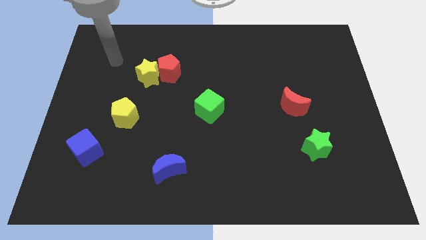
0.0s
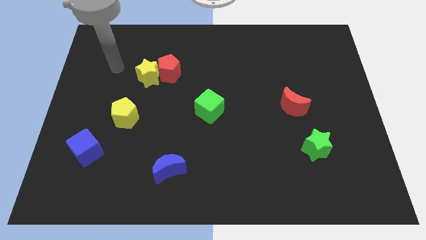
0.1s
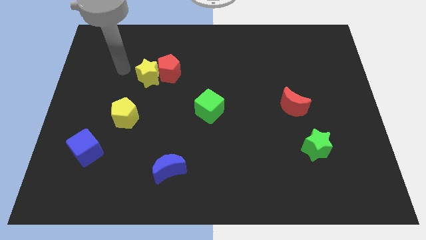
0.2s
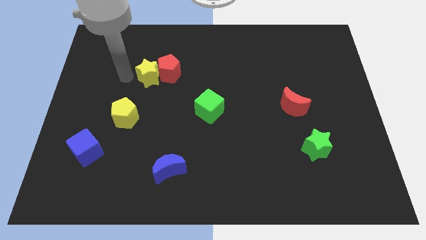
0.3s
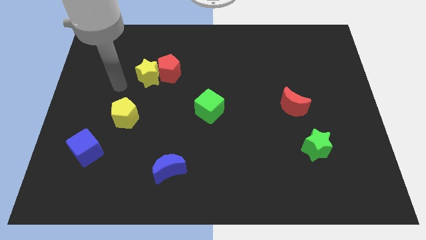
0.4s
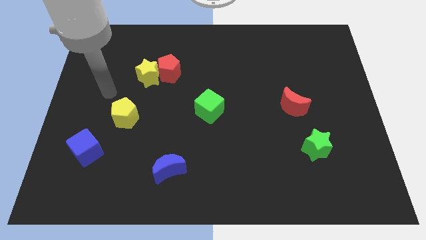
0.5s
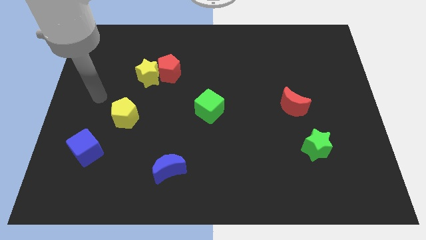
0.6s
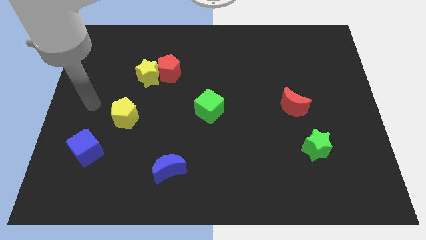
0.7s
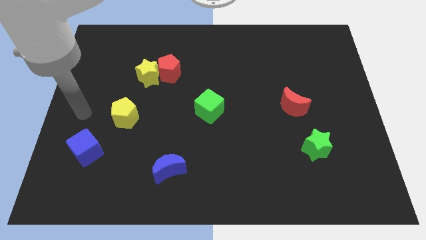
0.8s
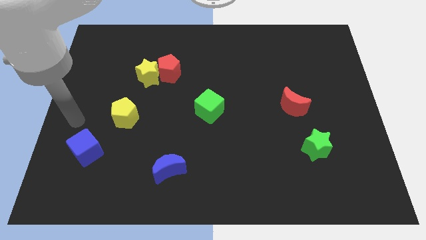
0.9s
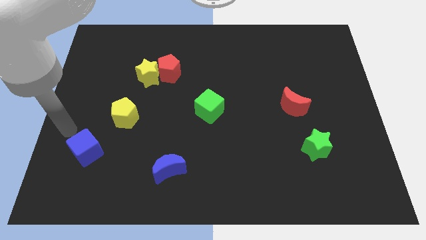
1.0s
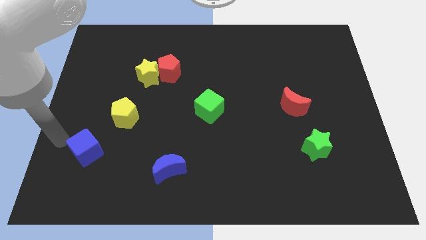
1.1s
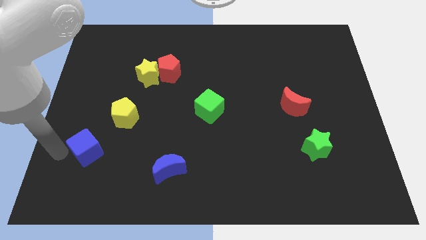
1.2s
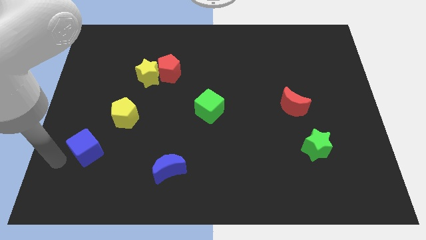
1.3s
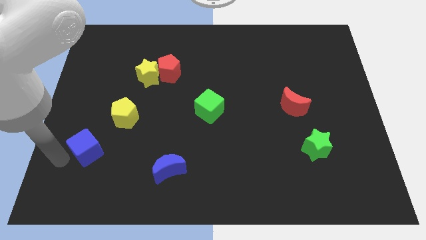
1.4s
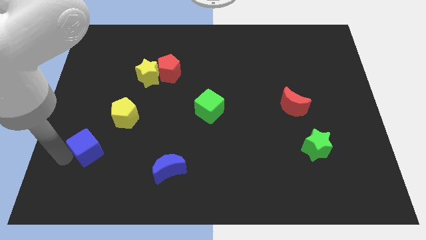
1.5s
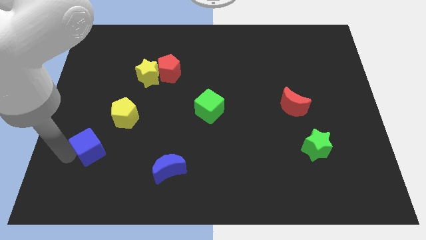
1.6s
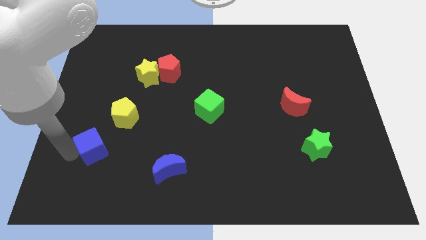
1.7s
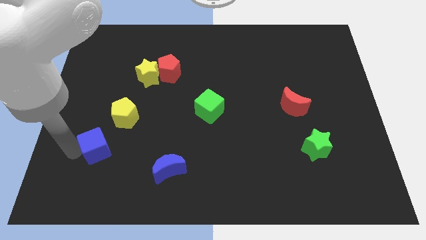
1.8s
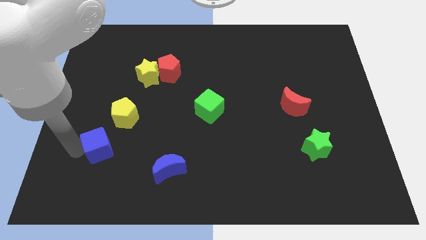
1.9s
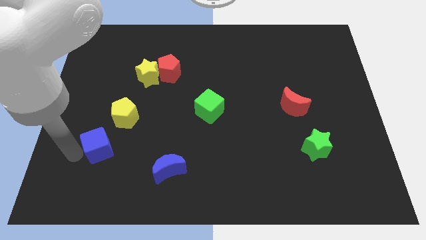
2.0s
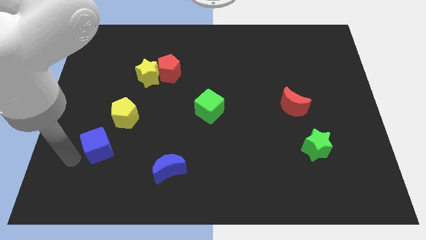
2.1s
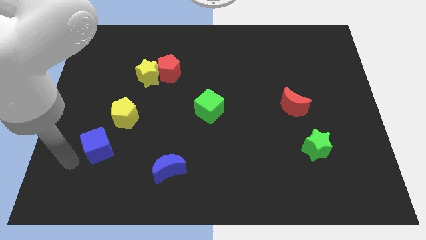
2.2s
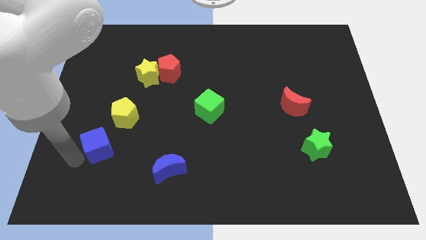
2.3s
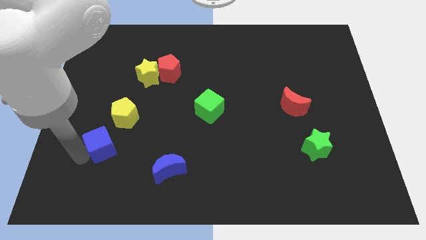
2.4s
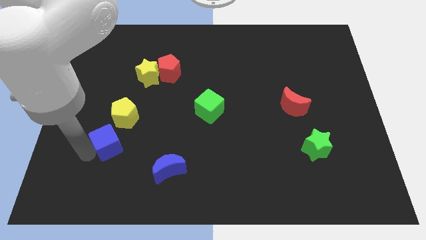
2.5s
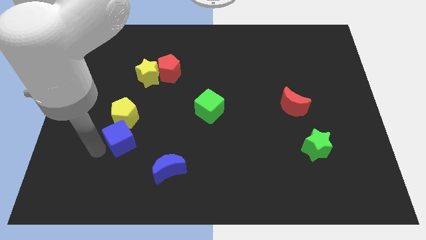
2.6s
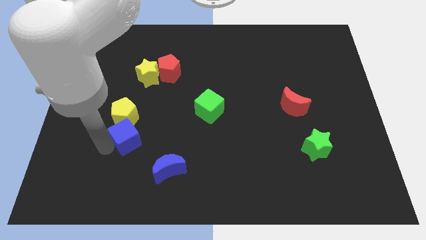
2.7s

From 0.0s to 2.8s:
slightly slide the blue cube diagonally up and right

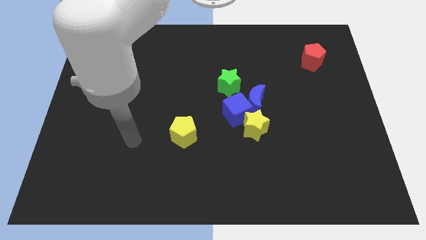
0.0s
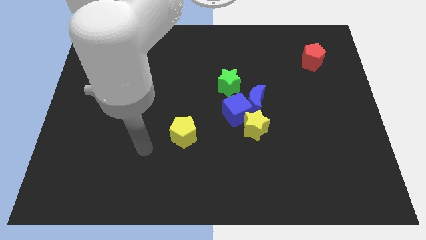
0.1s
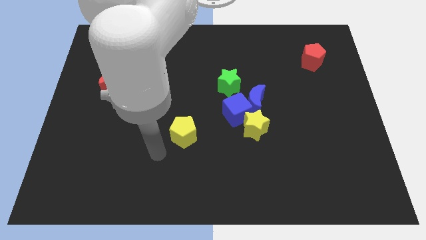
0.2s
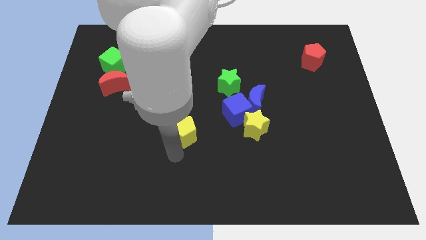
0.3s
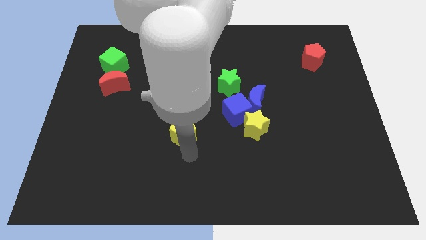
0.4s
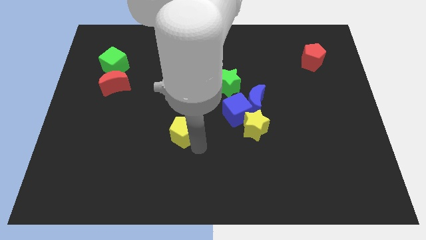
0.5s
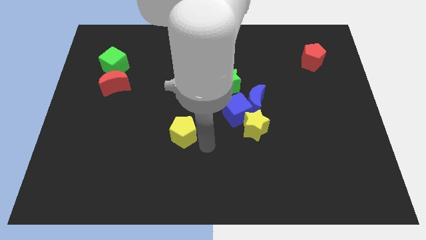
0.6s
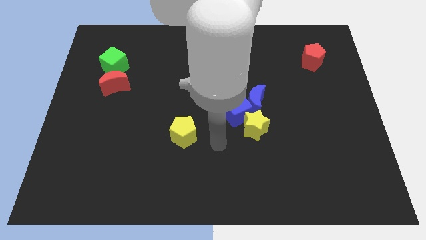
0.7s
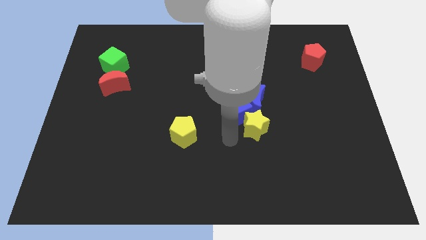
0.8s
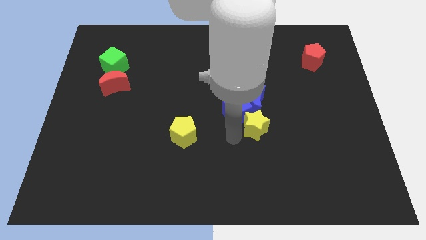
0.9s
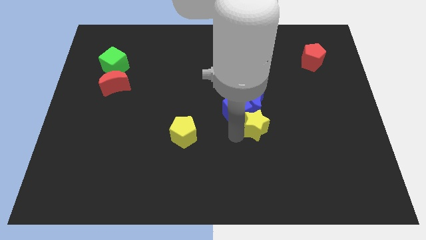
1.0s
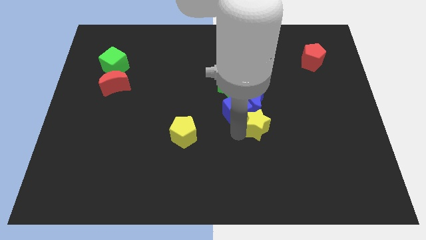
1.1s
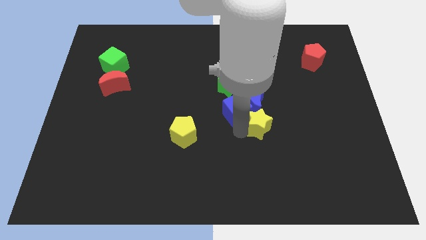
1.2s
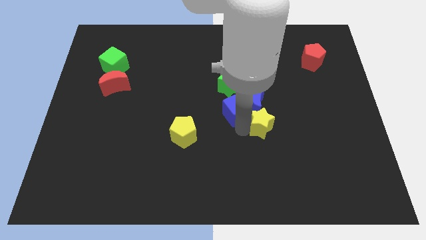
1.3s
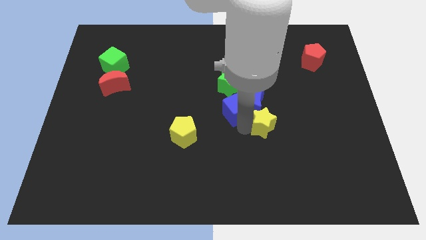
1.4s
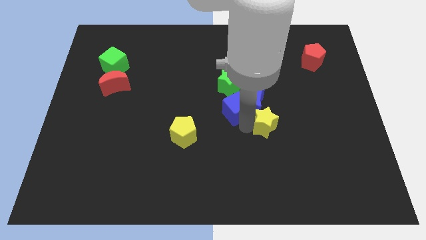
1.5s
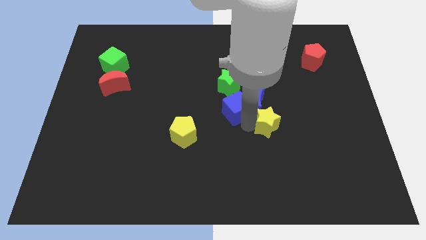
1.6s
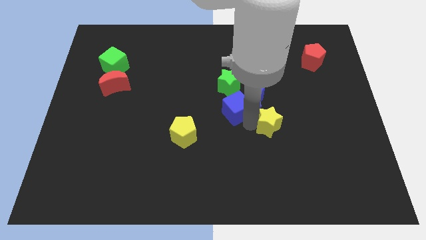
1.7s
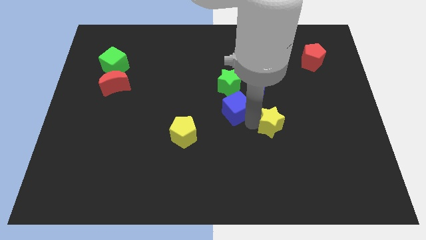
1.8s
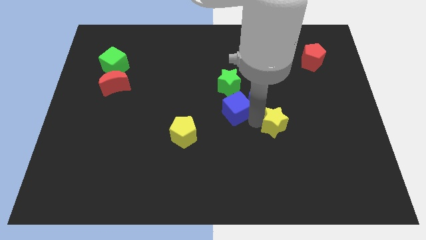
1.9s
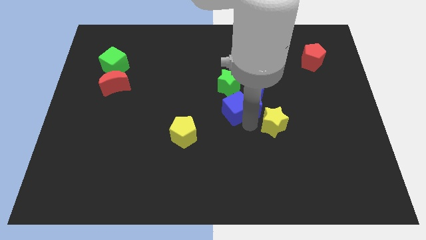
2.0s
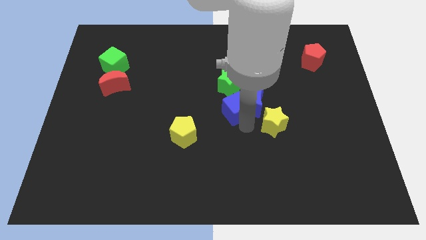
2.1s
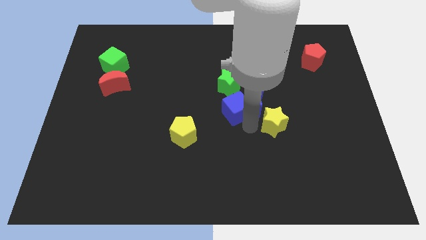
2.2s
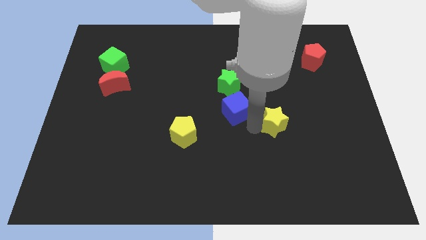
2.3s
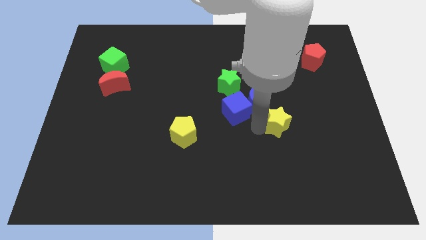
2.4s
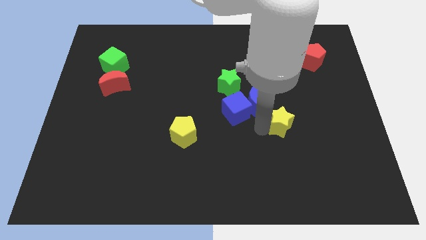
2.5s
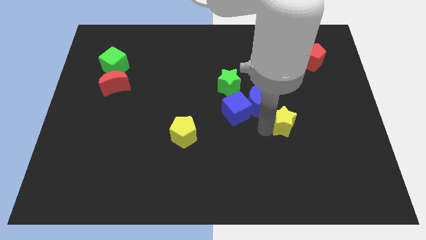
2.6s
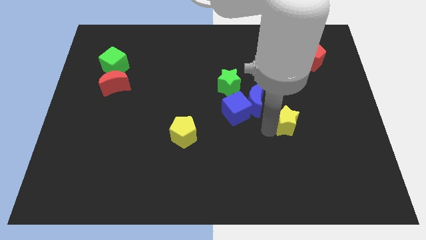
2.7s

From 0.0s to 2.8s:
move the yellow star a bit right

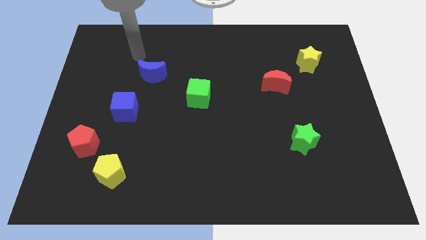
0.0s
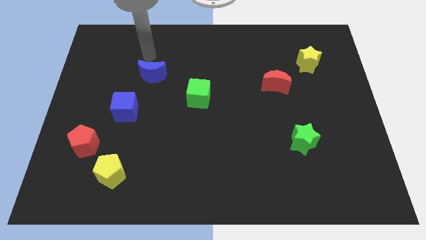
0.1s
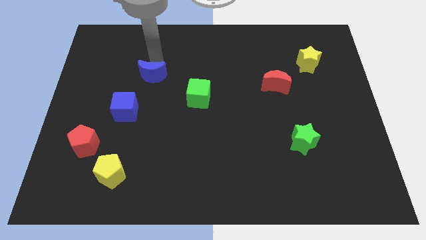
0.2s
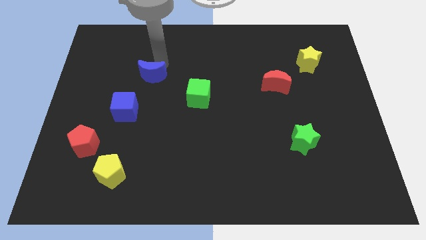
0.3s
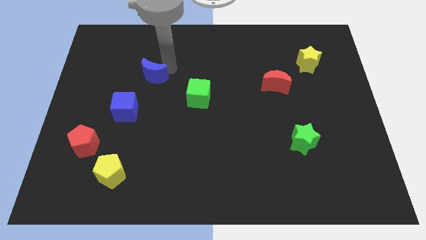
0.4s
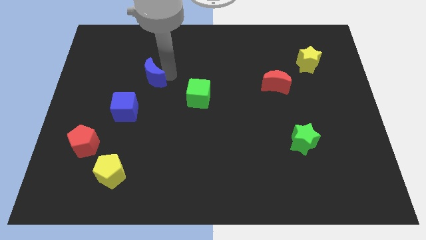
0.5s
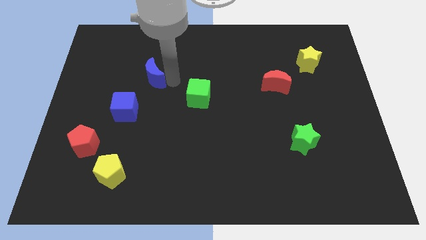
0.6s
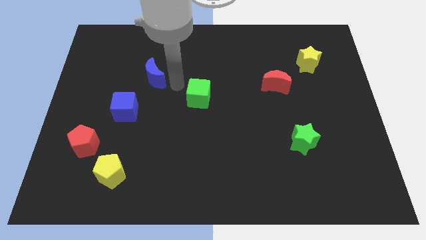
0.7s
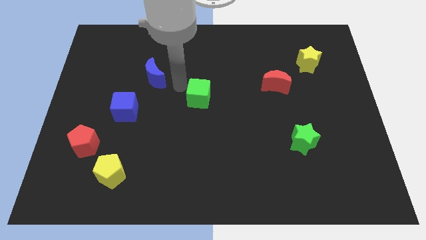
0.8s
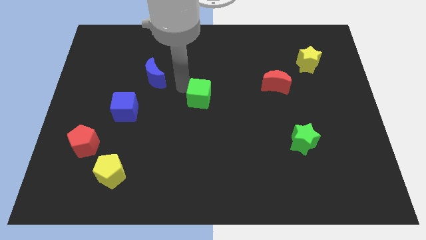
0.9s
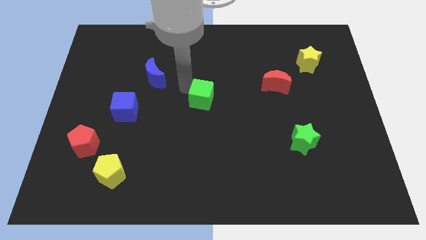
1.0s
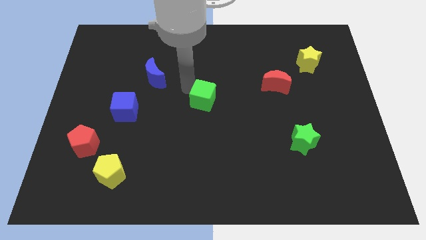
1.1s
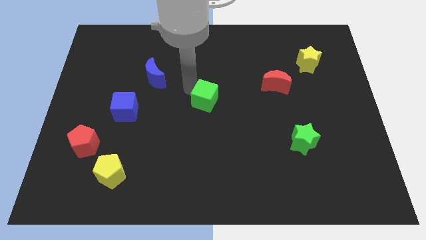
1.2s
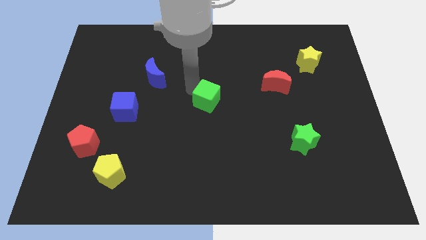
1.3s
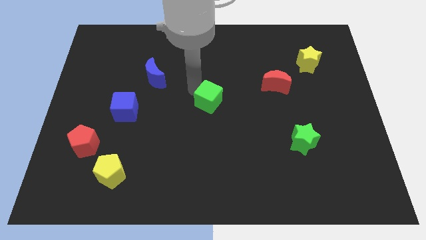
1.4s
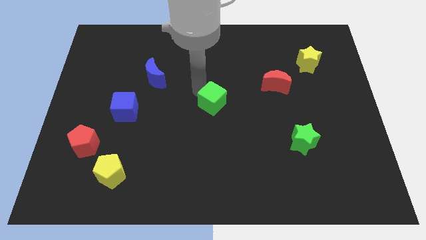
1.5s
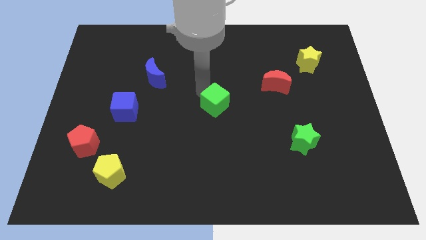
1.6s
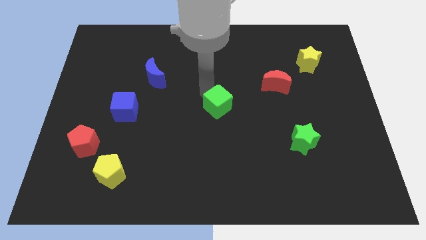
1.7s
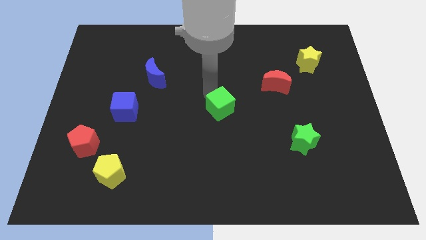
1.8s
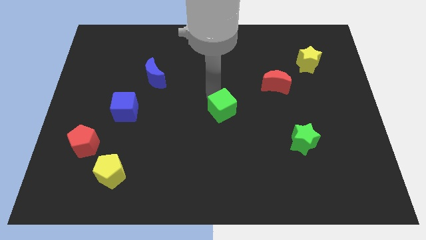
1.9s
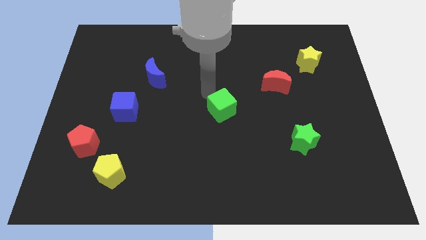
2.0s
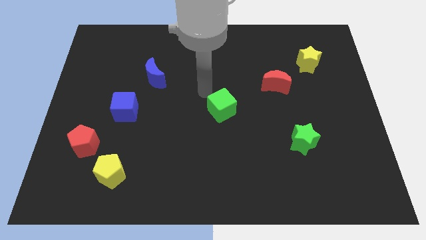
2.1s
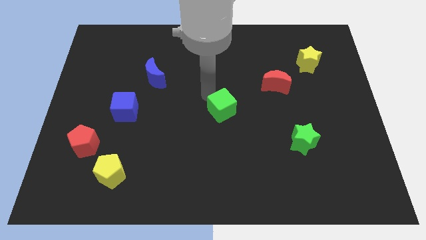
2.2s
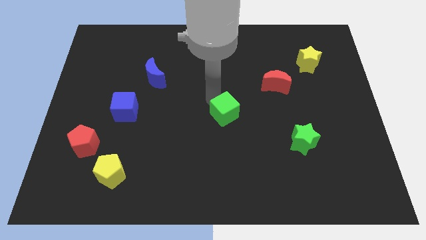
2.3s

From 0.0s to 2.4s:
slightly push the green cube downwards and right
